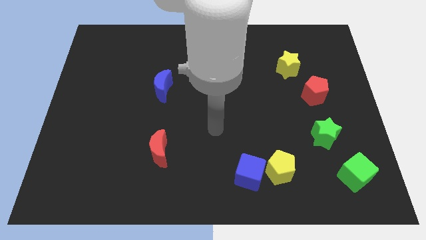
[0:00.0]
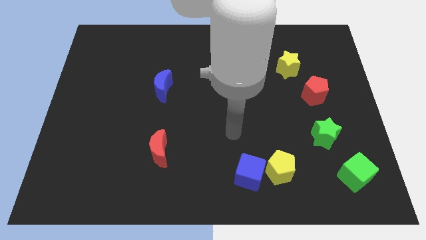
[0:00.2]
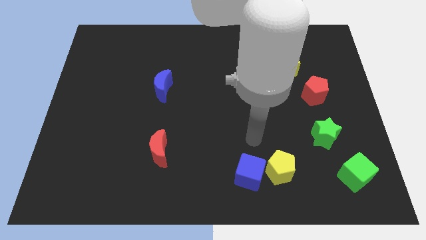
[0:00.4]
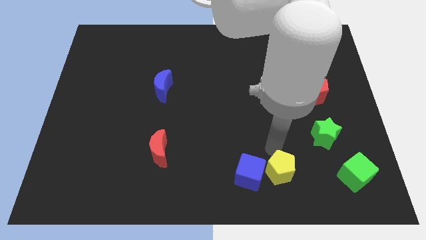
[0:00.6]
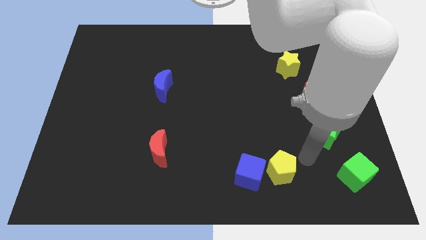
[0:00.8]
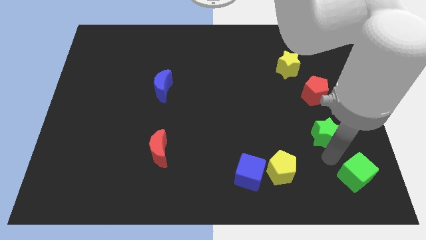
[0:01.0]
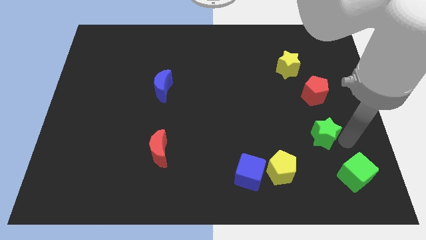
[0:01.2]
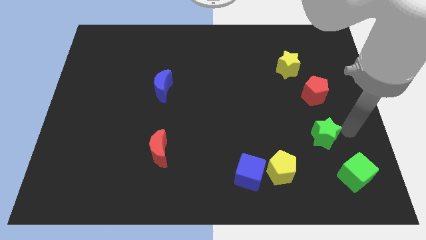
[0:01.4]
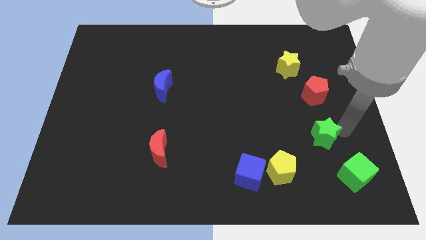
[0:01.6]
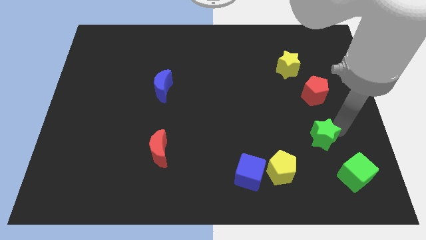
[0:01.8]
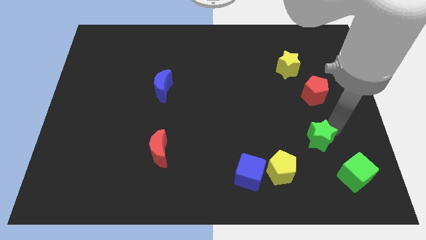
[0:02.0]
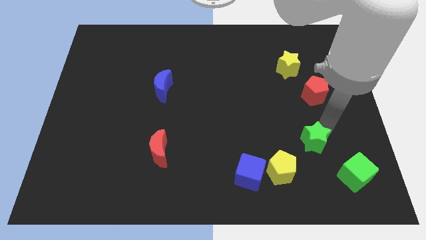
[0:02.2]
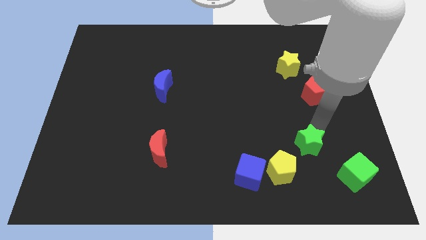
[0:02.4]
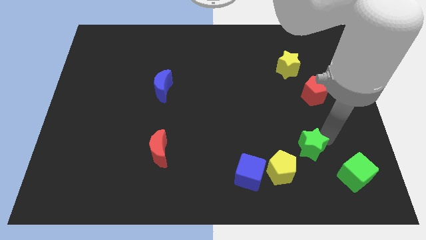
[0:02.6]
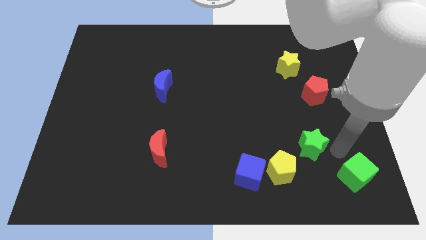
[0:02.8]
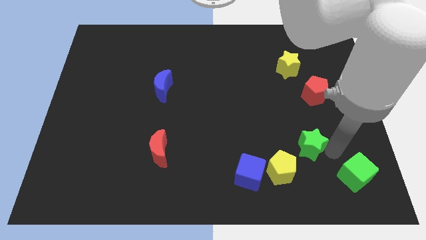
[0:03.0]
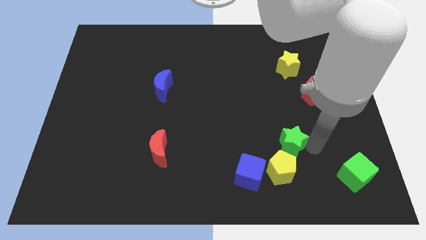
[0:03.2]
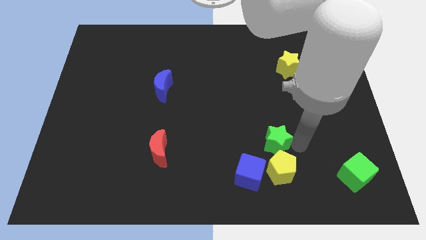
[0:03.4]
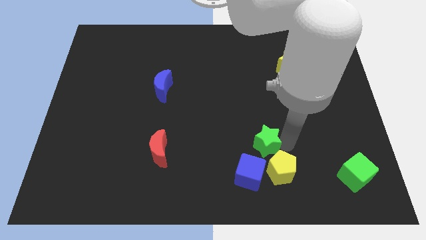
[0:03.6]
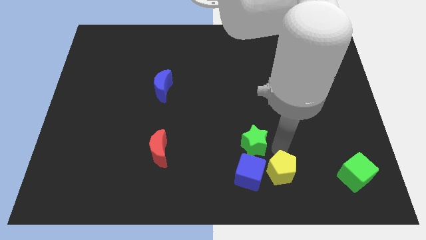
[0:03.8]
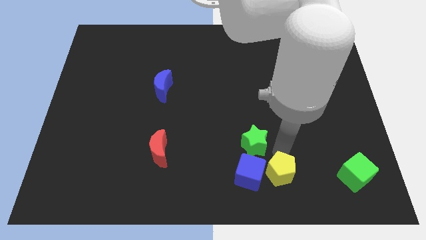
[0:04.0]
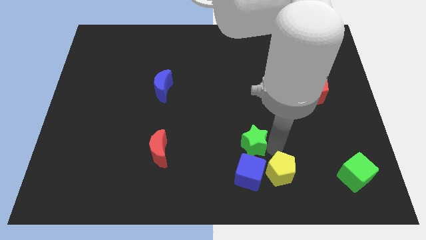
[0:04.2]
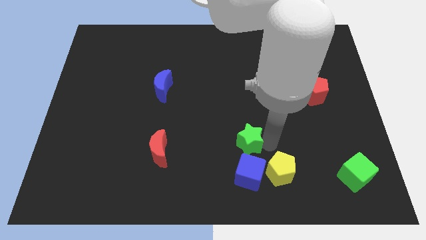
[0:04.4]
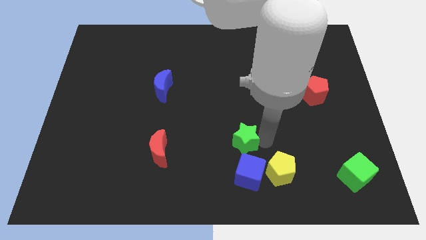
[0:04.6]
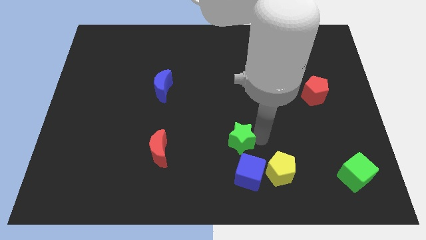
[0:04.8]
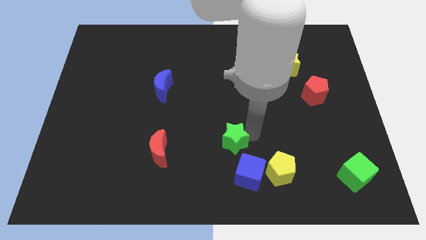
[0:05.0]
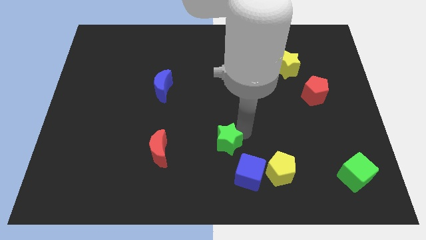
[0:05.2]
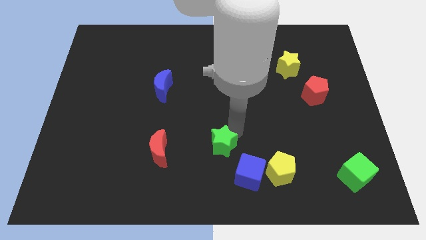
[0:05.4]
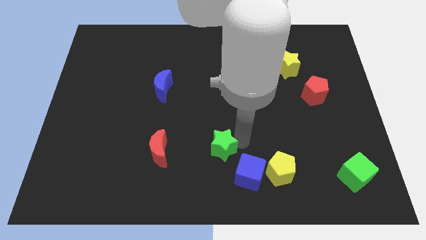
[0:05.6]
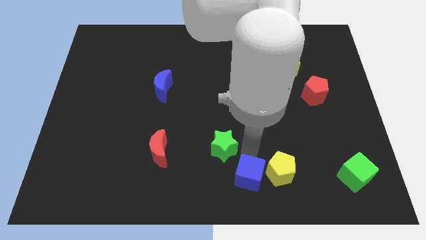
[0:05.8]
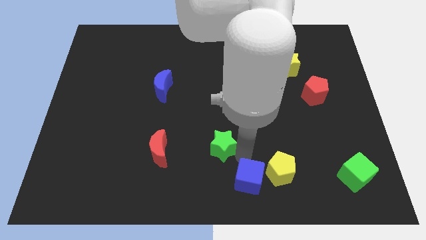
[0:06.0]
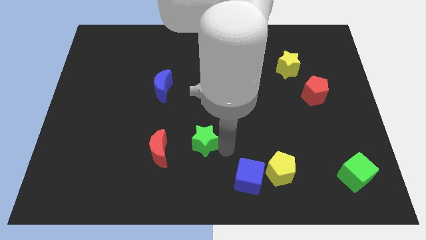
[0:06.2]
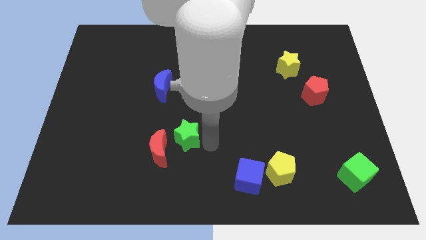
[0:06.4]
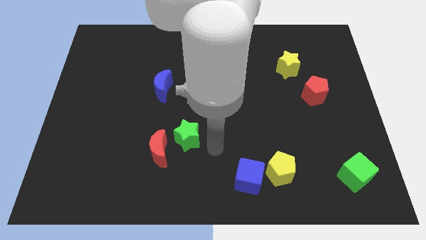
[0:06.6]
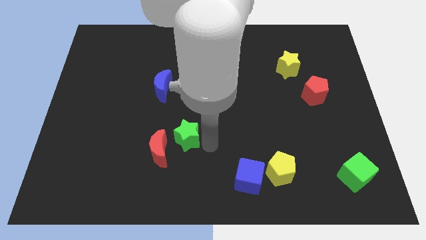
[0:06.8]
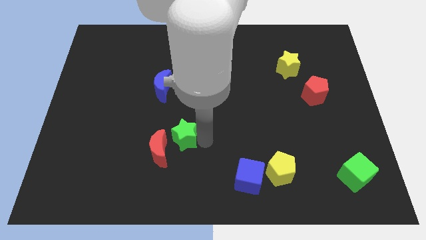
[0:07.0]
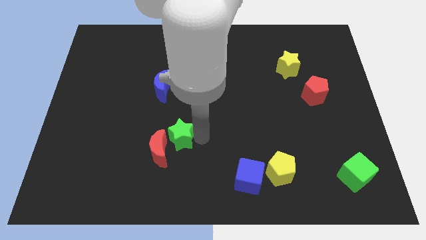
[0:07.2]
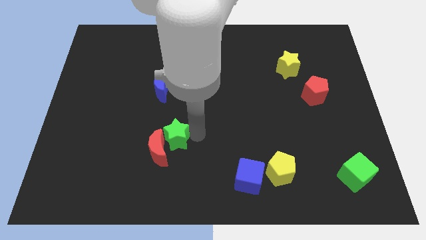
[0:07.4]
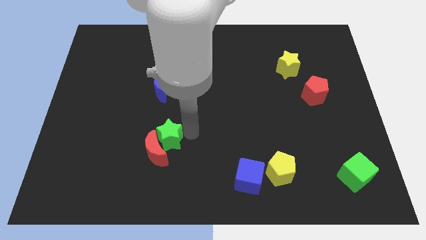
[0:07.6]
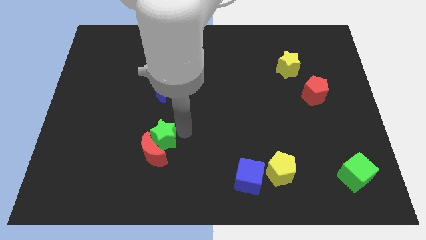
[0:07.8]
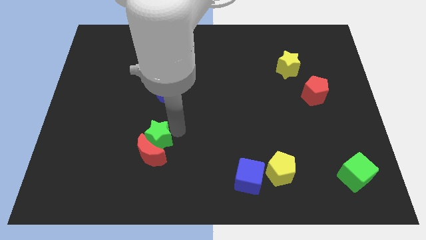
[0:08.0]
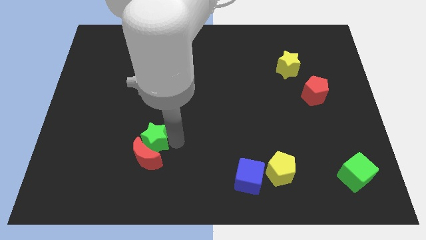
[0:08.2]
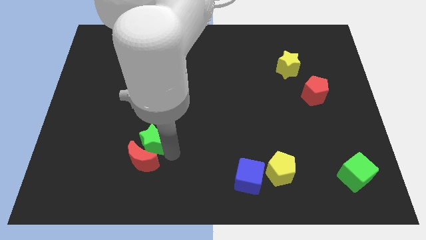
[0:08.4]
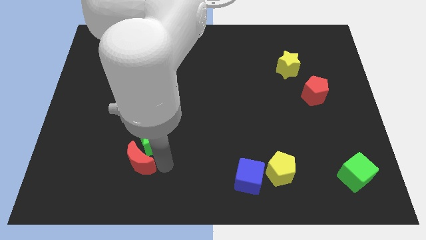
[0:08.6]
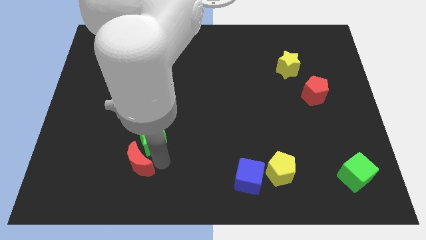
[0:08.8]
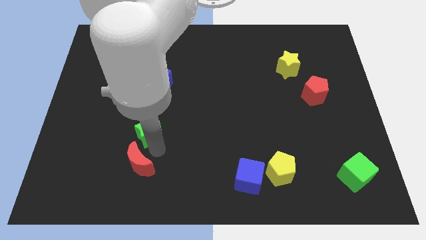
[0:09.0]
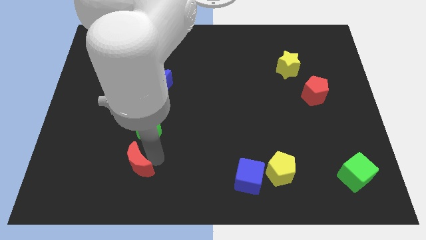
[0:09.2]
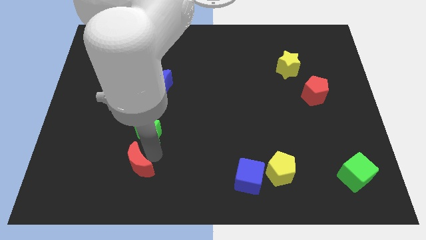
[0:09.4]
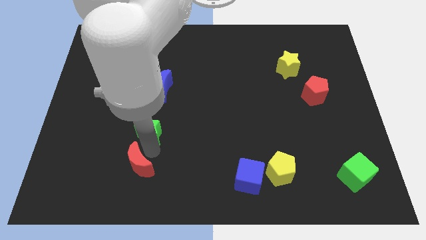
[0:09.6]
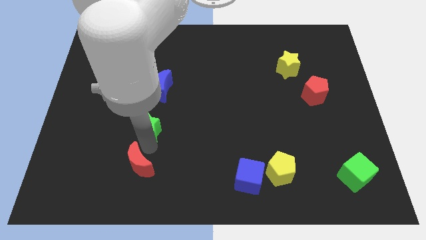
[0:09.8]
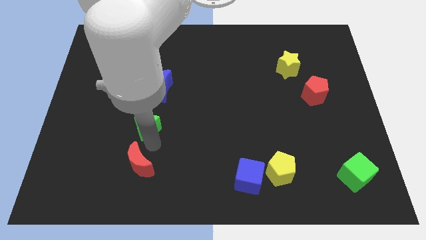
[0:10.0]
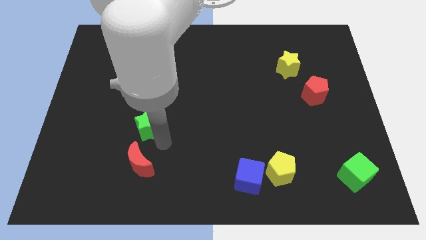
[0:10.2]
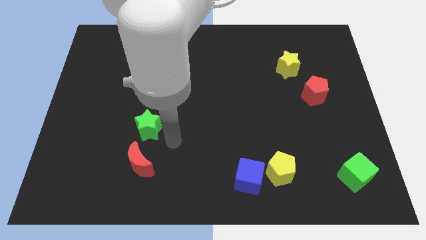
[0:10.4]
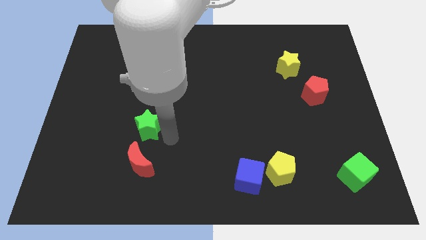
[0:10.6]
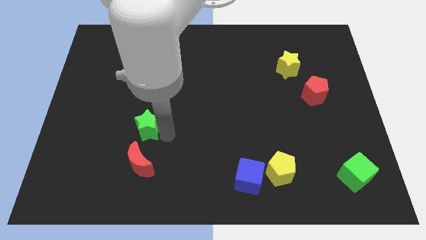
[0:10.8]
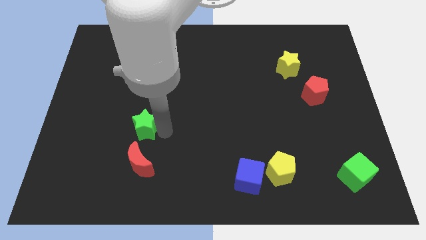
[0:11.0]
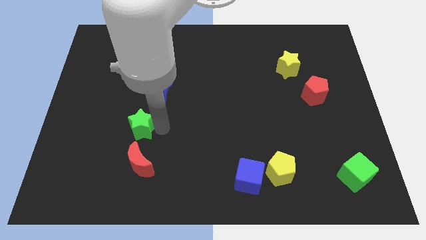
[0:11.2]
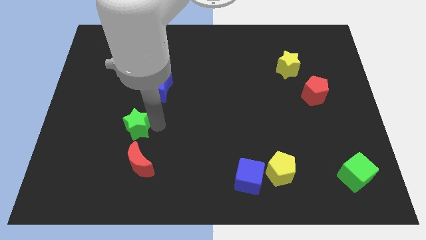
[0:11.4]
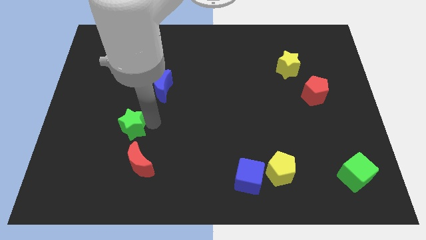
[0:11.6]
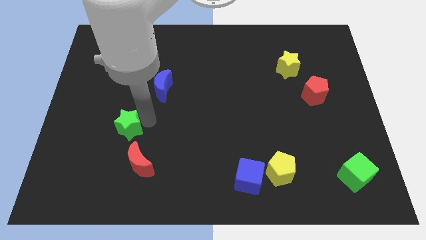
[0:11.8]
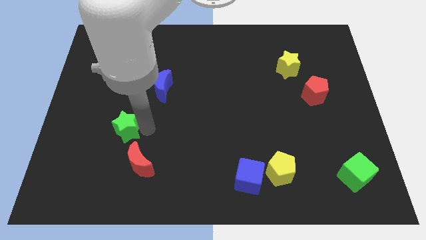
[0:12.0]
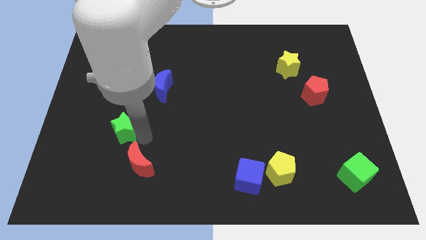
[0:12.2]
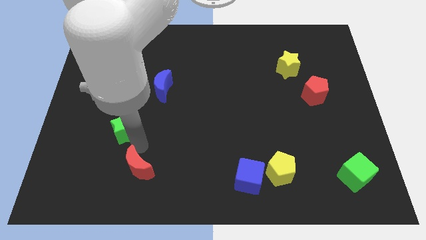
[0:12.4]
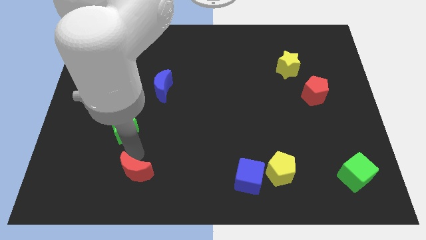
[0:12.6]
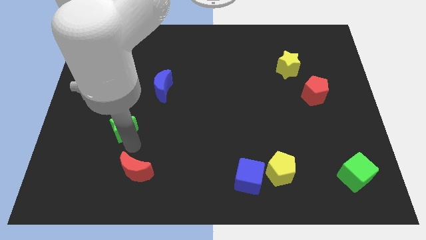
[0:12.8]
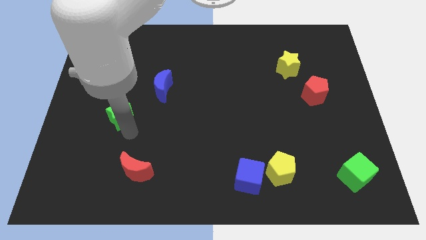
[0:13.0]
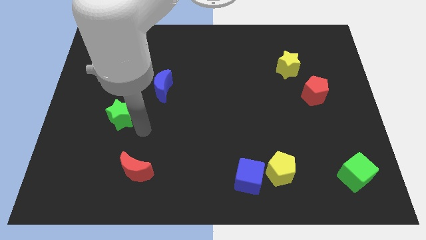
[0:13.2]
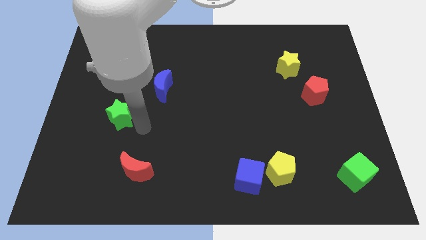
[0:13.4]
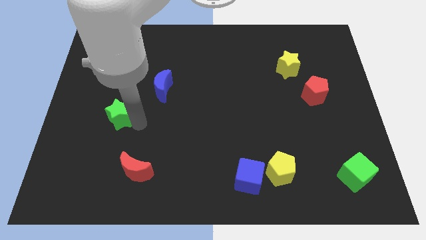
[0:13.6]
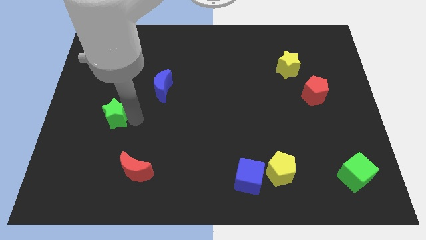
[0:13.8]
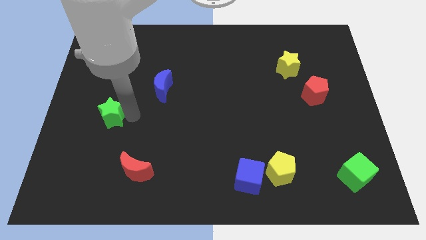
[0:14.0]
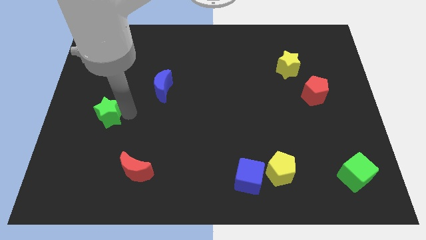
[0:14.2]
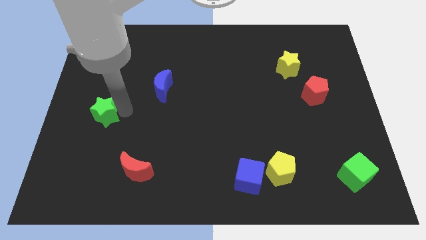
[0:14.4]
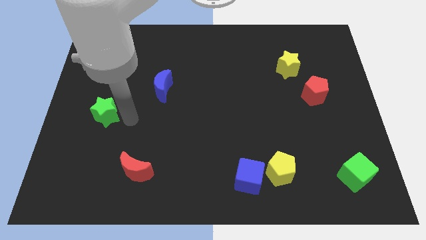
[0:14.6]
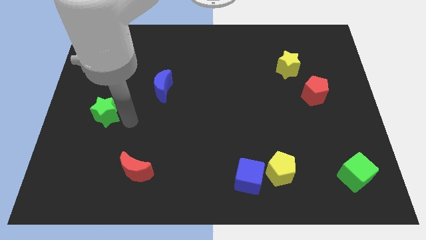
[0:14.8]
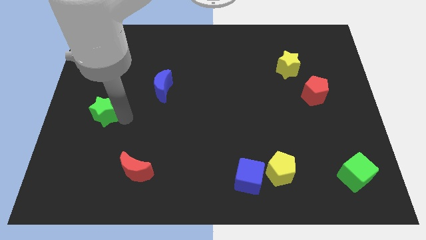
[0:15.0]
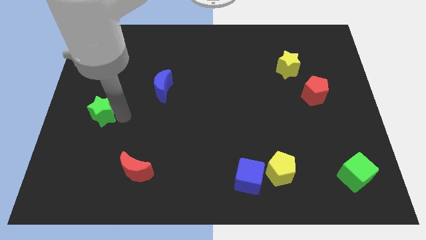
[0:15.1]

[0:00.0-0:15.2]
slide the green star to the center left
